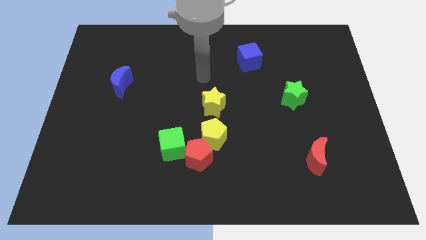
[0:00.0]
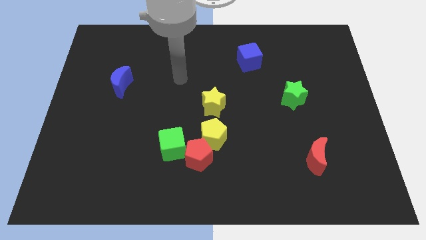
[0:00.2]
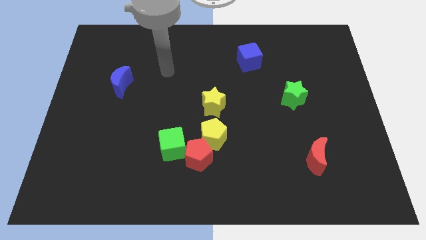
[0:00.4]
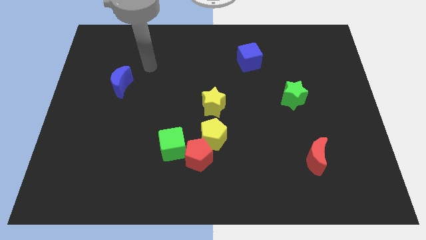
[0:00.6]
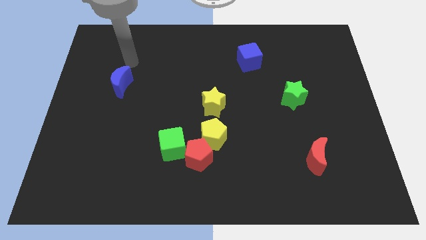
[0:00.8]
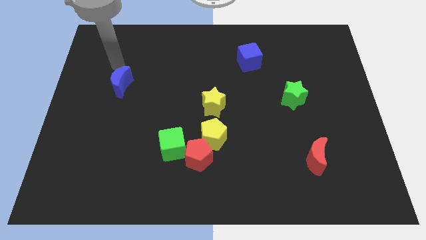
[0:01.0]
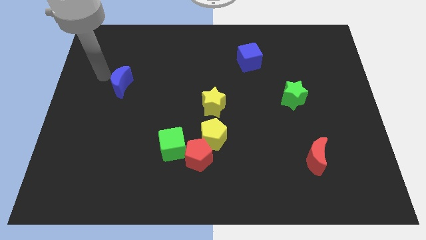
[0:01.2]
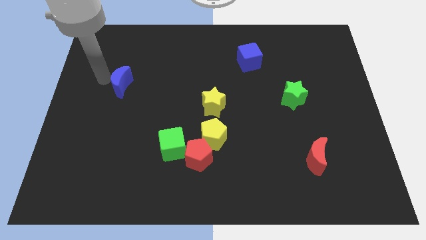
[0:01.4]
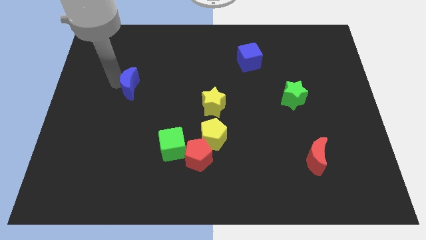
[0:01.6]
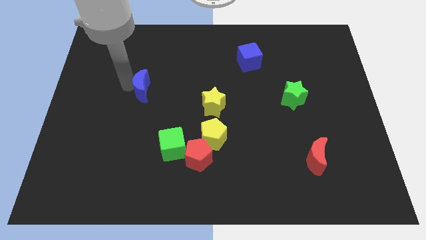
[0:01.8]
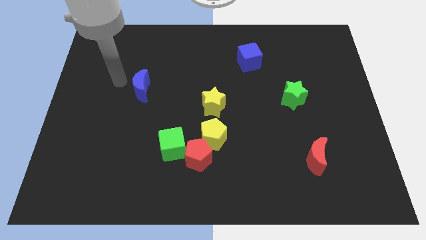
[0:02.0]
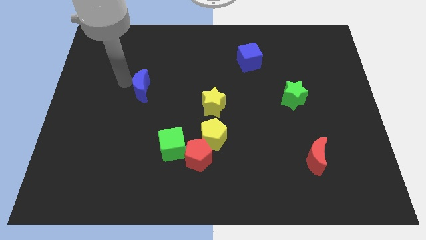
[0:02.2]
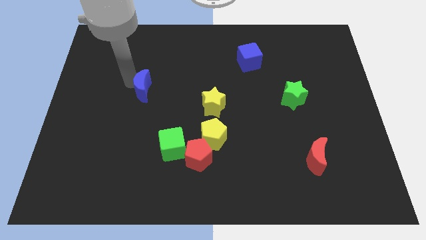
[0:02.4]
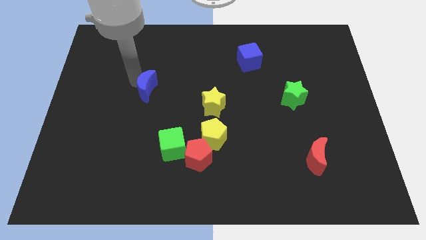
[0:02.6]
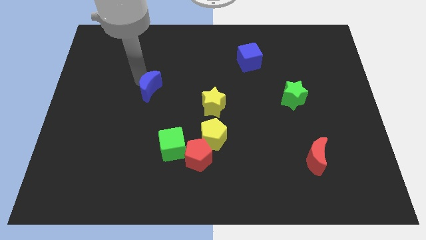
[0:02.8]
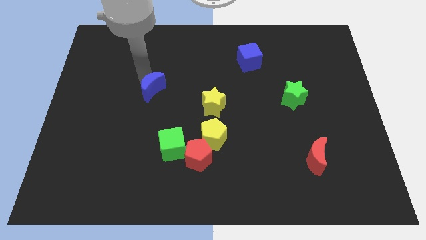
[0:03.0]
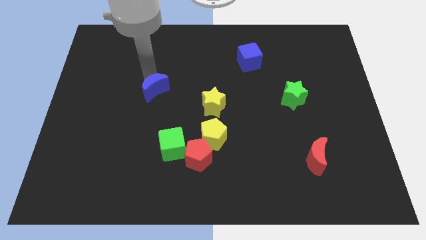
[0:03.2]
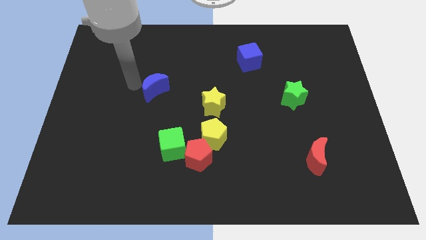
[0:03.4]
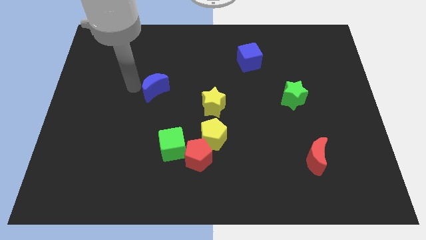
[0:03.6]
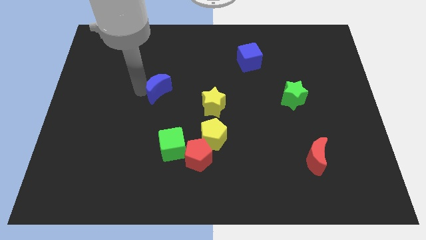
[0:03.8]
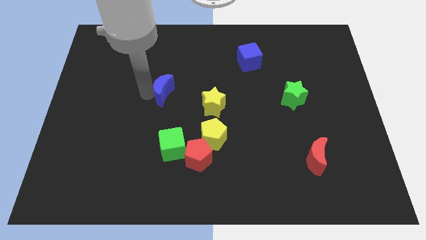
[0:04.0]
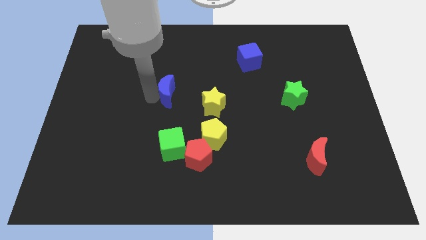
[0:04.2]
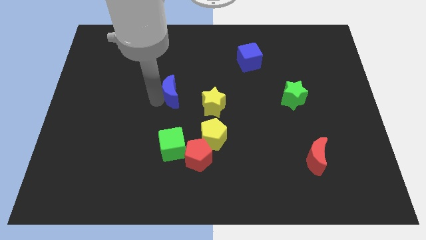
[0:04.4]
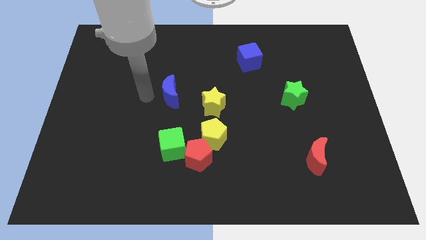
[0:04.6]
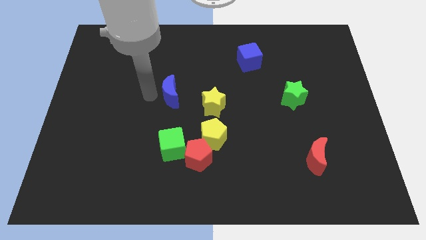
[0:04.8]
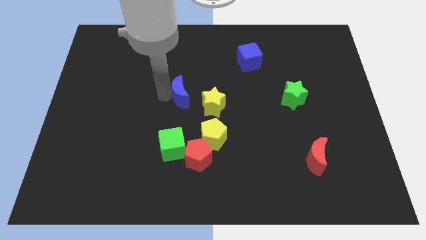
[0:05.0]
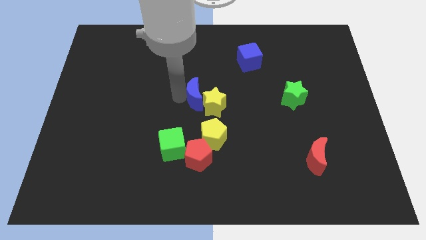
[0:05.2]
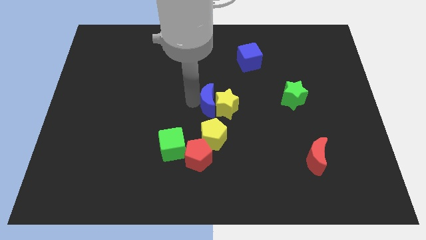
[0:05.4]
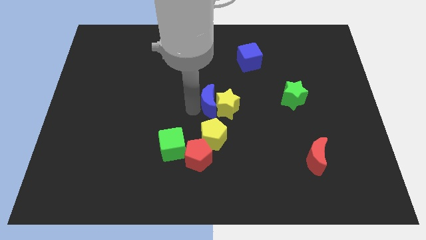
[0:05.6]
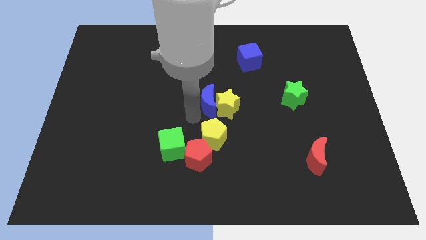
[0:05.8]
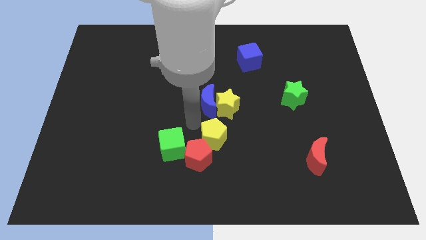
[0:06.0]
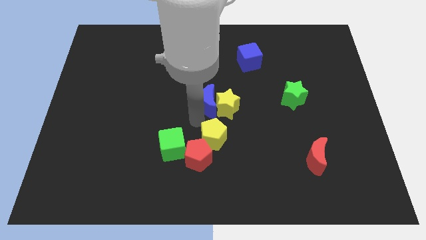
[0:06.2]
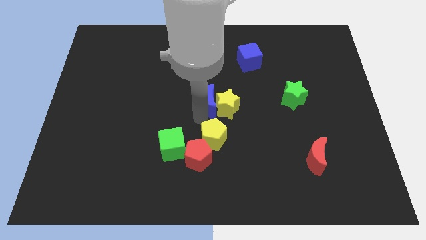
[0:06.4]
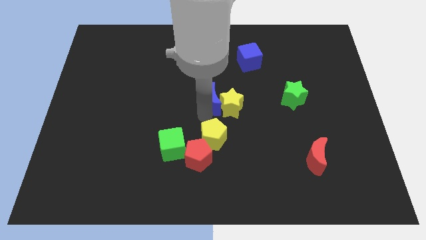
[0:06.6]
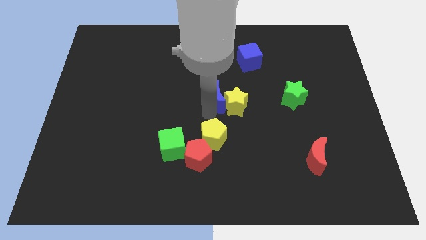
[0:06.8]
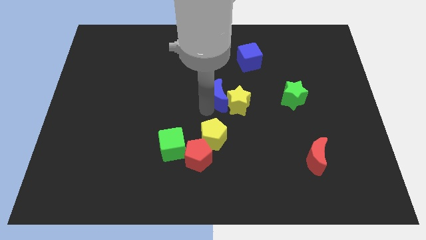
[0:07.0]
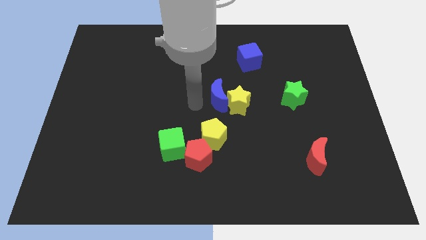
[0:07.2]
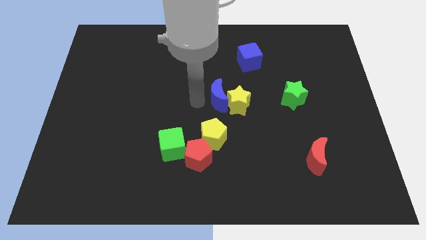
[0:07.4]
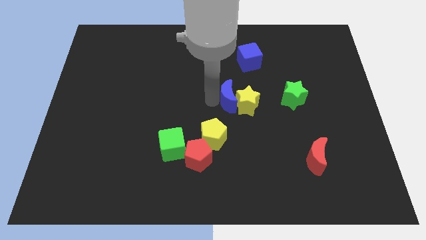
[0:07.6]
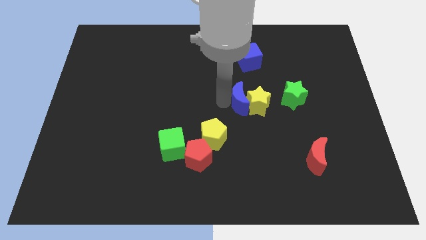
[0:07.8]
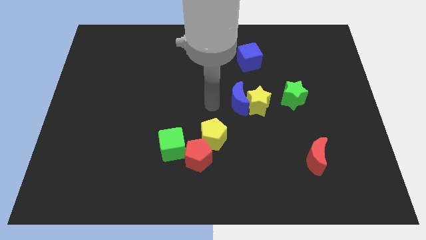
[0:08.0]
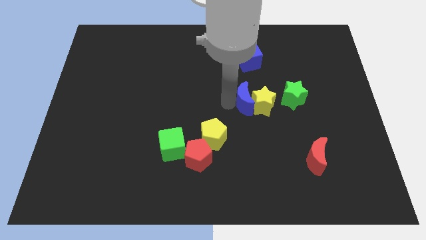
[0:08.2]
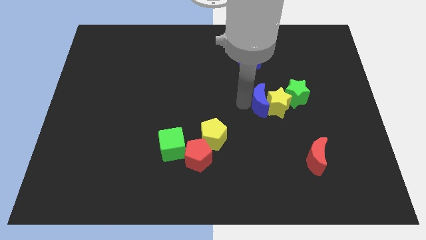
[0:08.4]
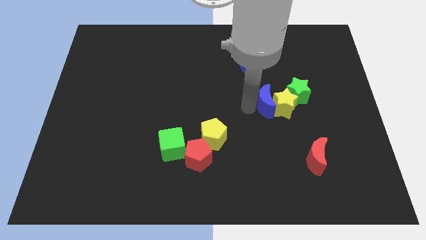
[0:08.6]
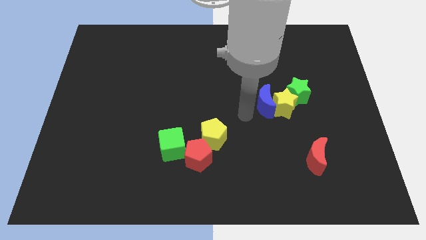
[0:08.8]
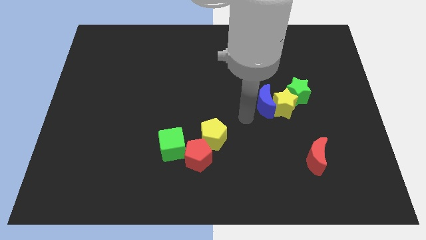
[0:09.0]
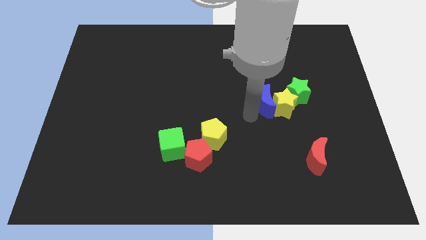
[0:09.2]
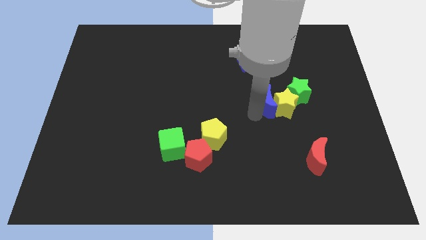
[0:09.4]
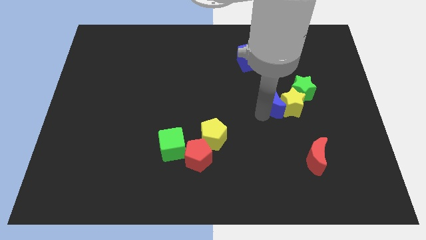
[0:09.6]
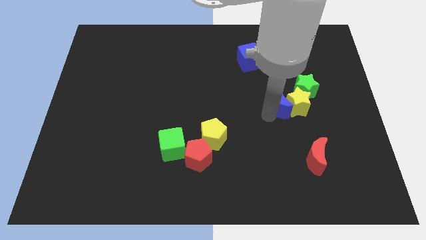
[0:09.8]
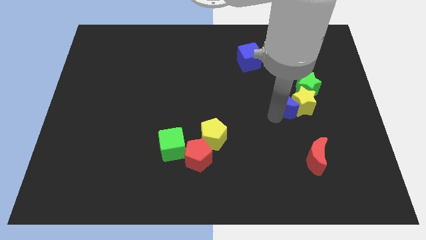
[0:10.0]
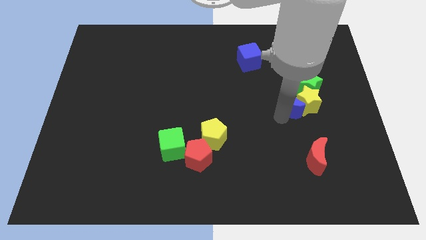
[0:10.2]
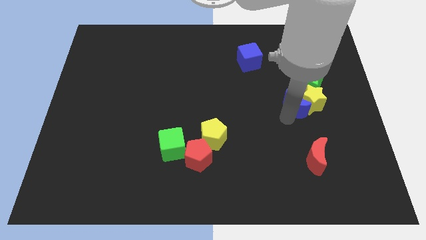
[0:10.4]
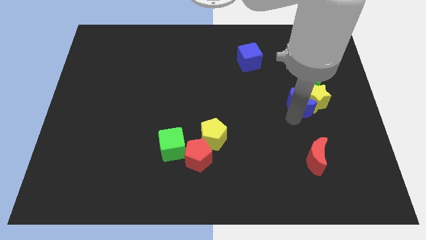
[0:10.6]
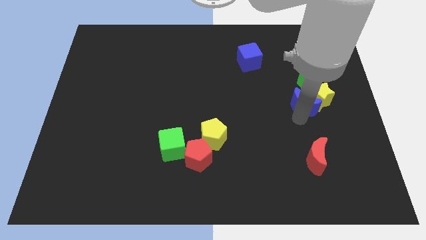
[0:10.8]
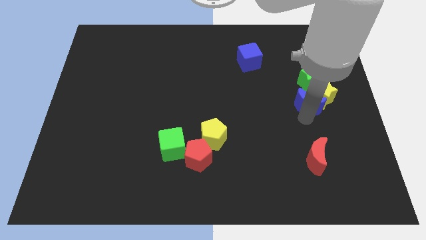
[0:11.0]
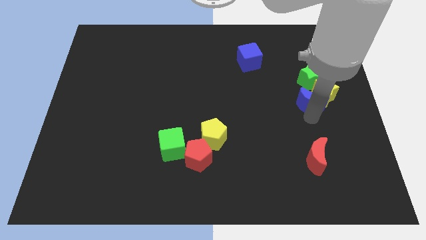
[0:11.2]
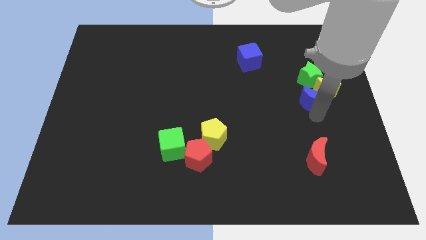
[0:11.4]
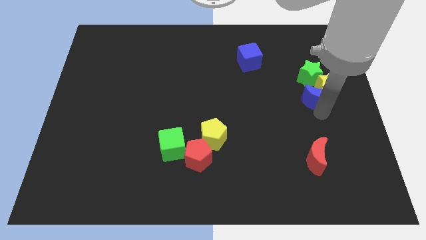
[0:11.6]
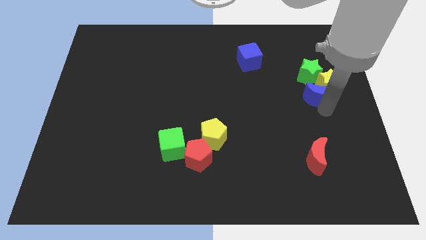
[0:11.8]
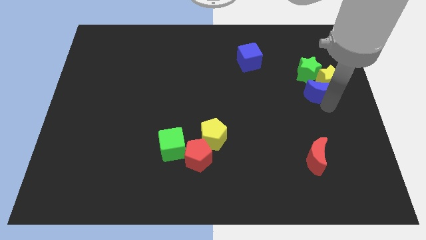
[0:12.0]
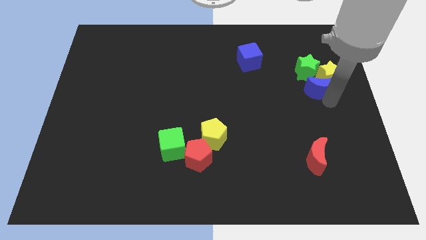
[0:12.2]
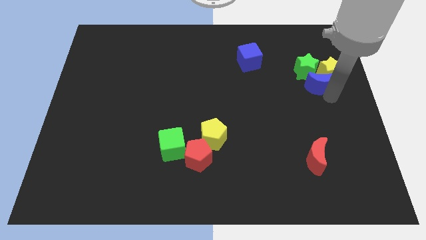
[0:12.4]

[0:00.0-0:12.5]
push the blue moon close to the green star

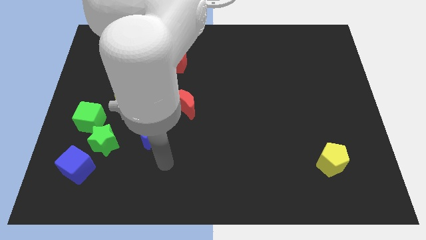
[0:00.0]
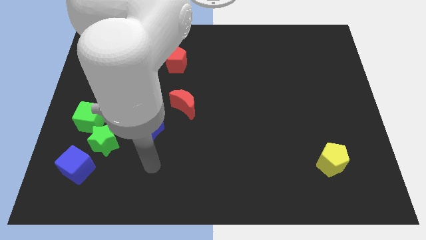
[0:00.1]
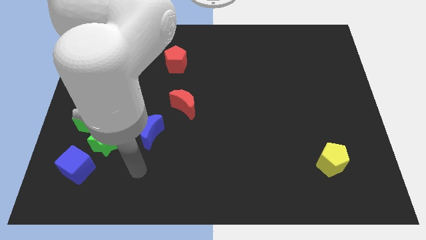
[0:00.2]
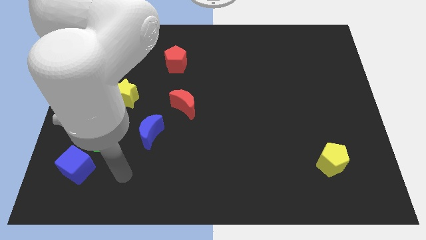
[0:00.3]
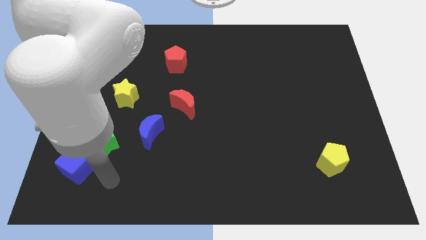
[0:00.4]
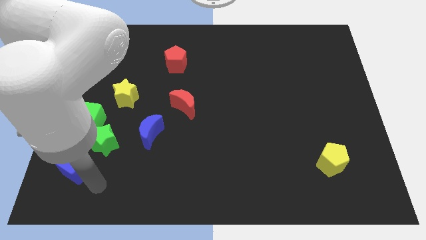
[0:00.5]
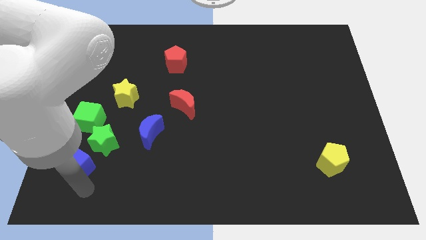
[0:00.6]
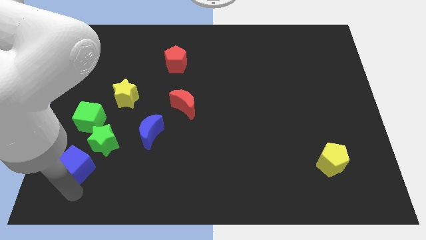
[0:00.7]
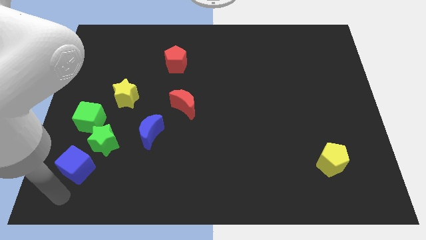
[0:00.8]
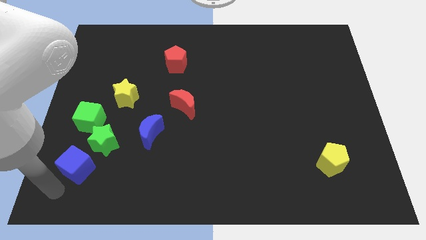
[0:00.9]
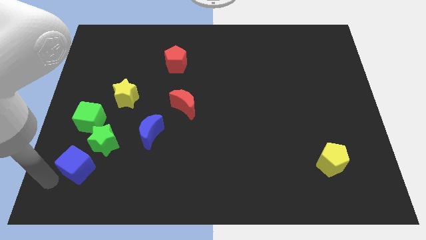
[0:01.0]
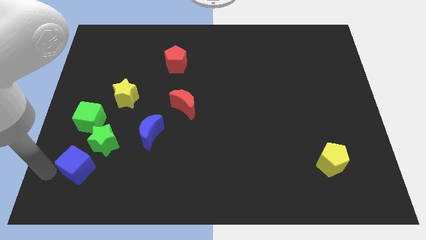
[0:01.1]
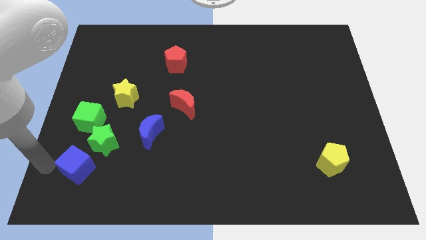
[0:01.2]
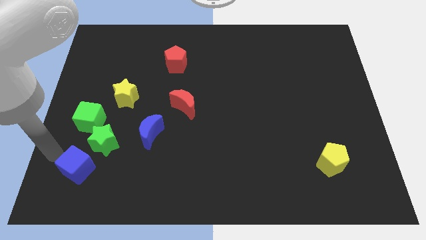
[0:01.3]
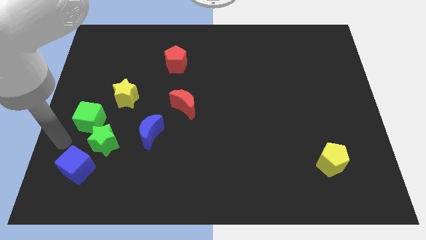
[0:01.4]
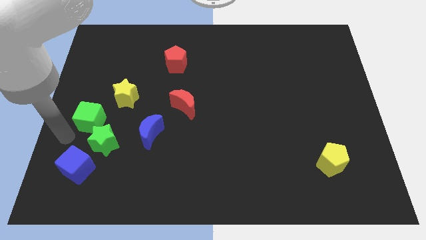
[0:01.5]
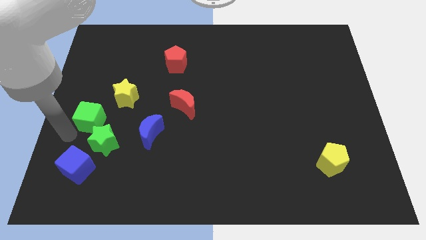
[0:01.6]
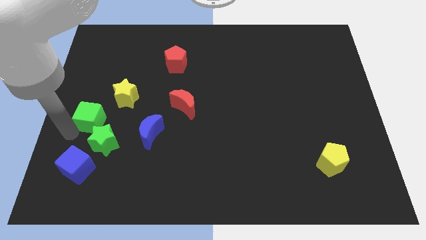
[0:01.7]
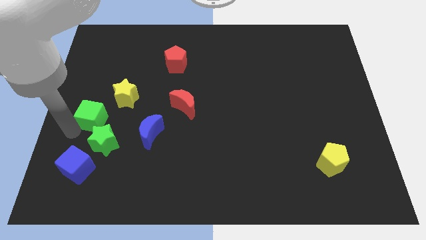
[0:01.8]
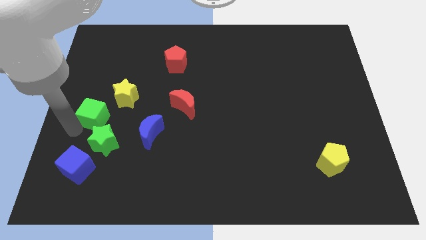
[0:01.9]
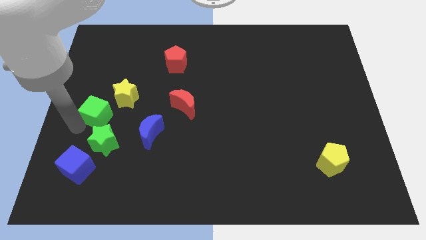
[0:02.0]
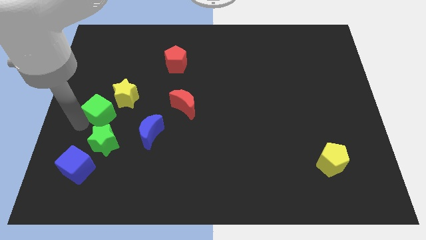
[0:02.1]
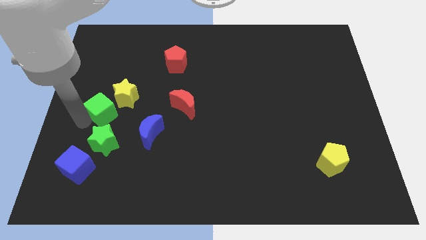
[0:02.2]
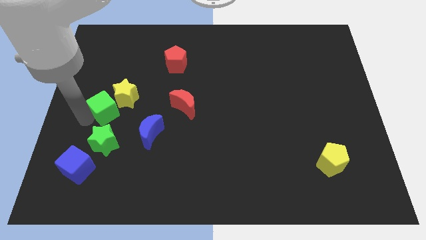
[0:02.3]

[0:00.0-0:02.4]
push the green cube to the yellow star

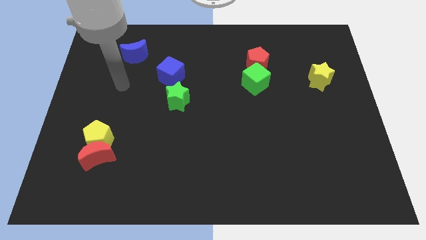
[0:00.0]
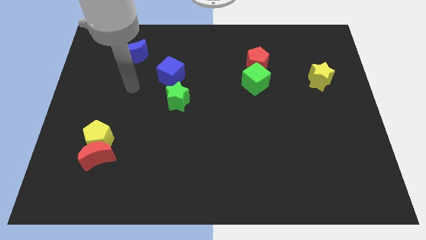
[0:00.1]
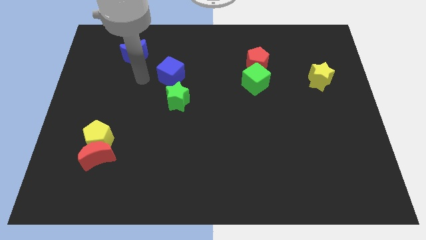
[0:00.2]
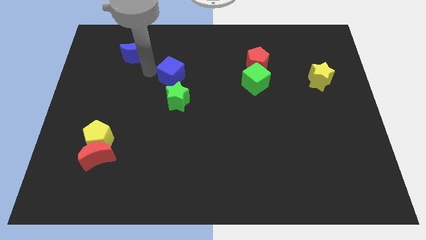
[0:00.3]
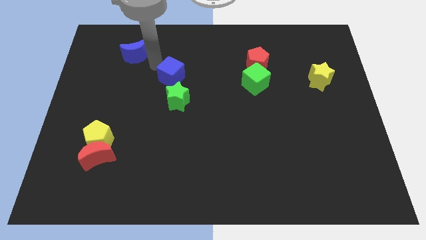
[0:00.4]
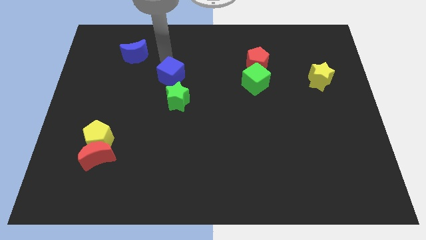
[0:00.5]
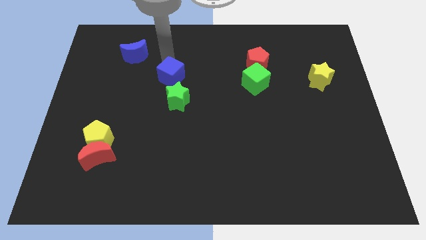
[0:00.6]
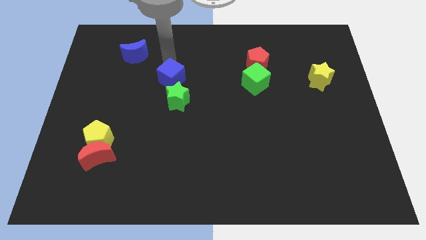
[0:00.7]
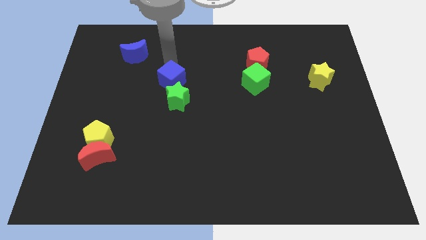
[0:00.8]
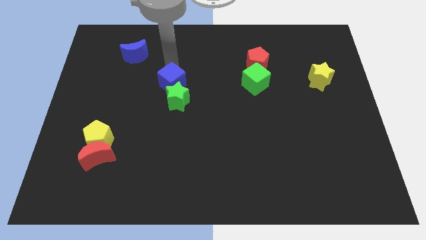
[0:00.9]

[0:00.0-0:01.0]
put the blue cube towards the green star
